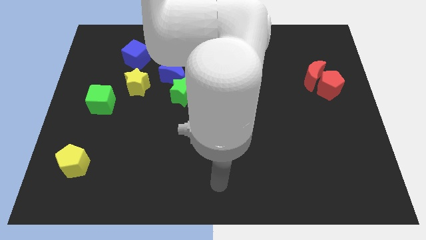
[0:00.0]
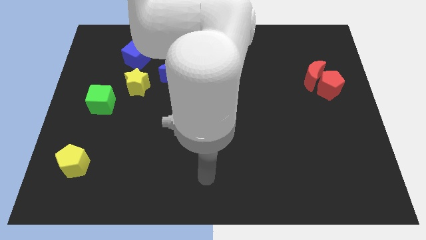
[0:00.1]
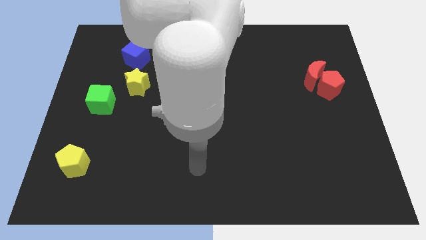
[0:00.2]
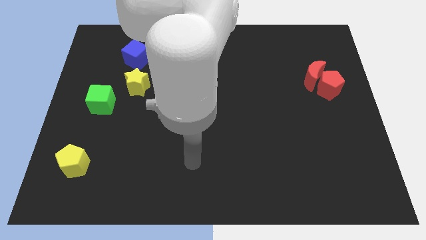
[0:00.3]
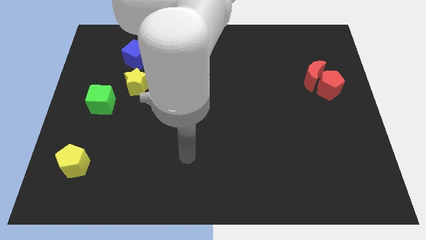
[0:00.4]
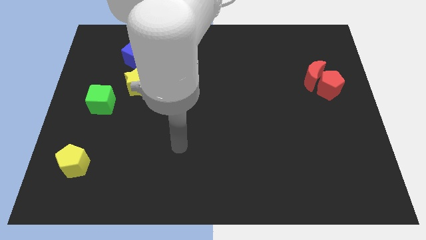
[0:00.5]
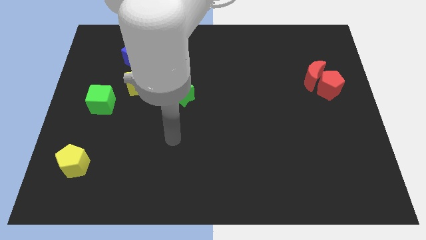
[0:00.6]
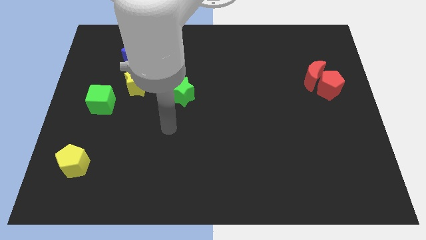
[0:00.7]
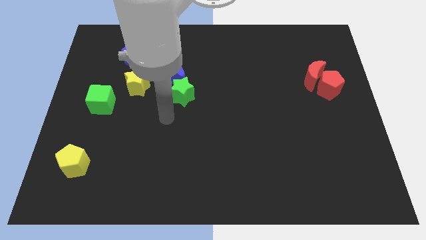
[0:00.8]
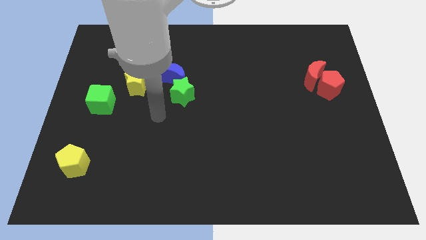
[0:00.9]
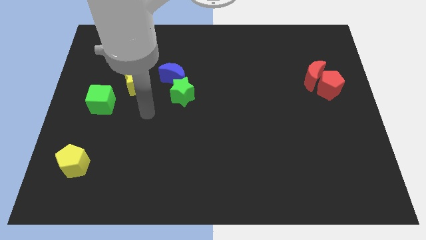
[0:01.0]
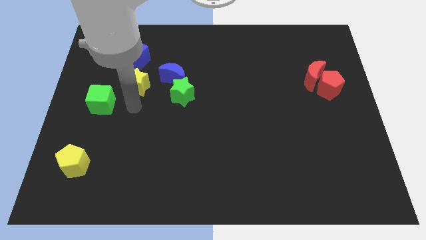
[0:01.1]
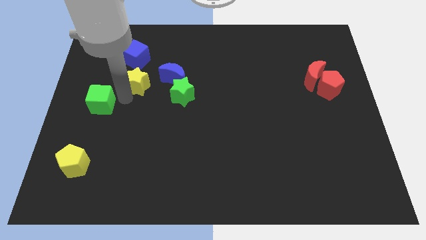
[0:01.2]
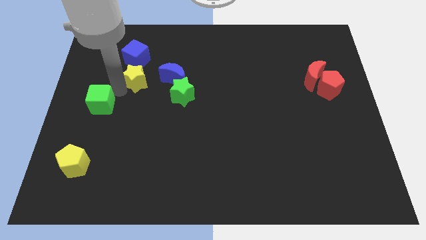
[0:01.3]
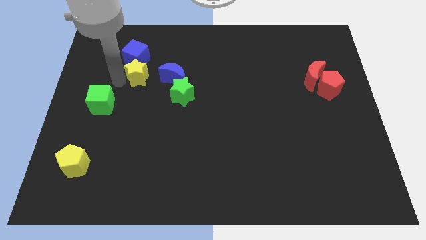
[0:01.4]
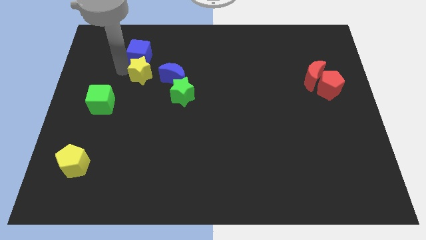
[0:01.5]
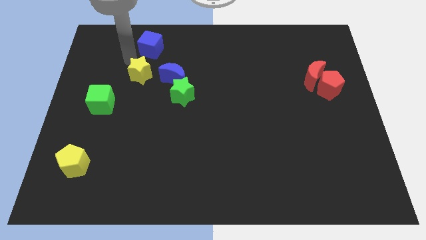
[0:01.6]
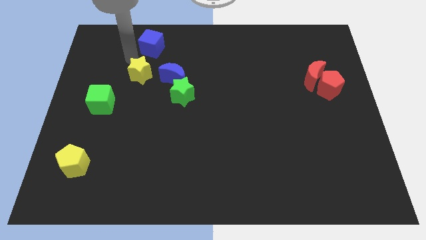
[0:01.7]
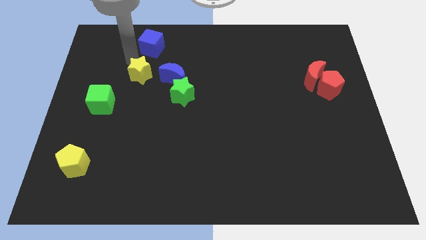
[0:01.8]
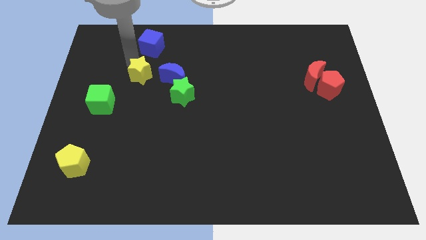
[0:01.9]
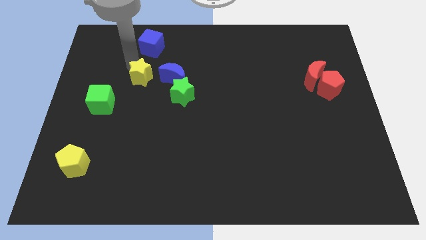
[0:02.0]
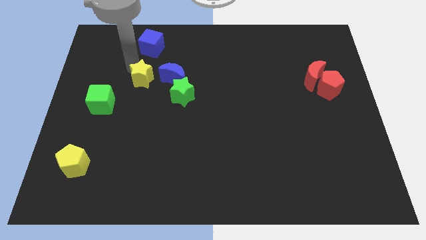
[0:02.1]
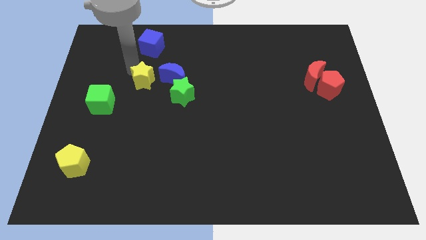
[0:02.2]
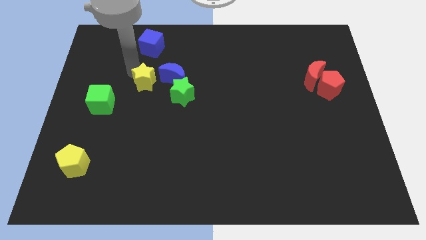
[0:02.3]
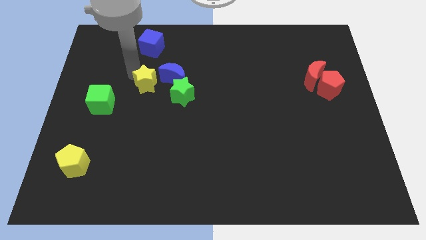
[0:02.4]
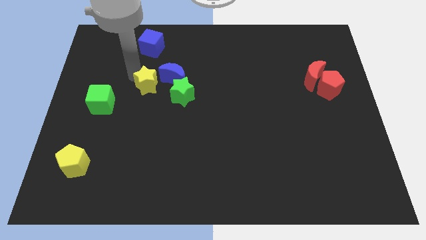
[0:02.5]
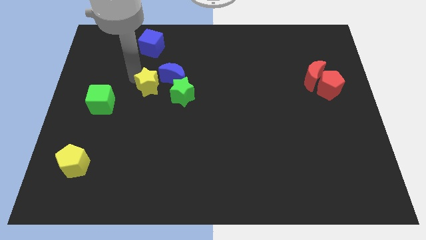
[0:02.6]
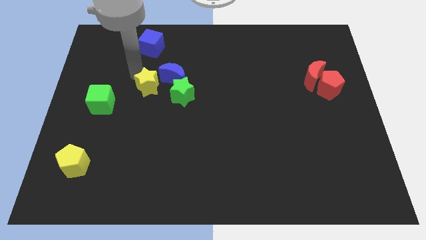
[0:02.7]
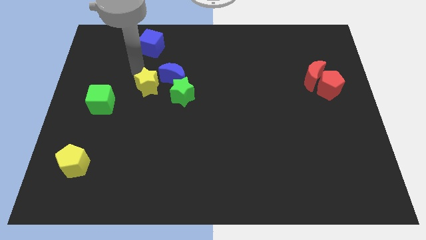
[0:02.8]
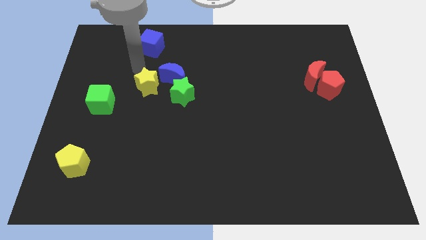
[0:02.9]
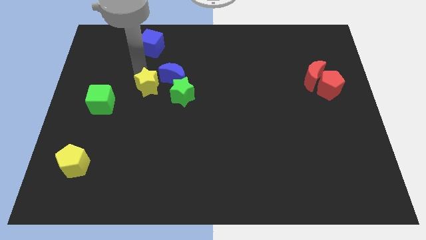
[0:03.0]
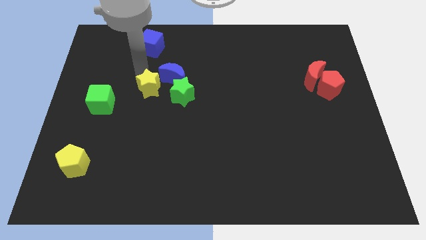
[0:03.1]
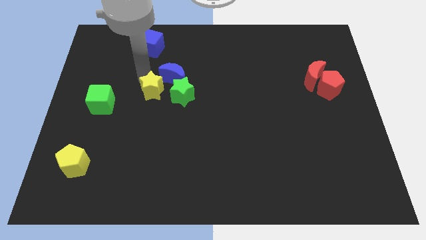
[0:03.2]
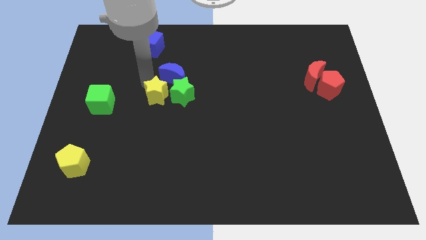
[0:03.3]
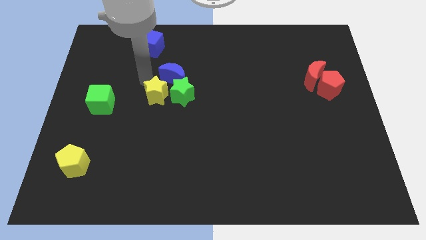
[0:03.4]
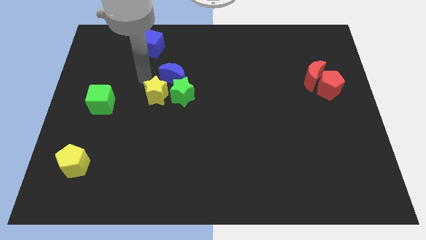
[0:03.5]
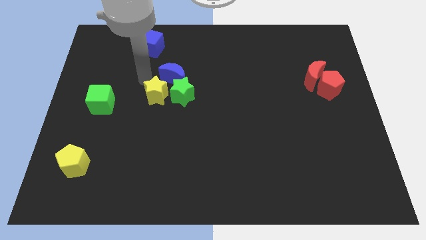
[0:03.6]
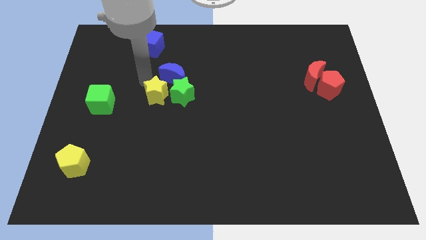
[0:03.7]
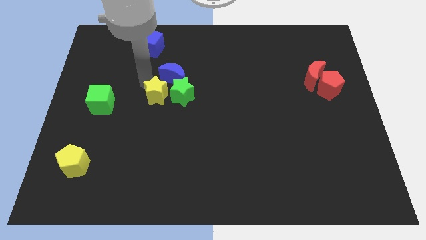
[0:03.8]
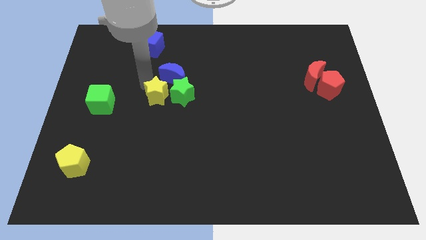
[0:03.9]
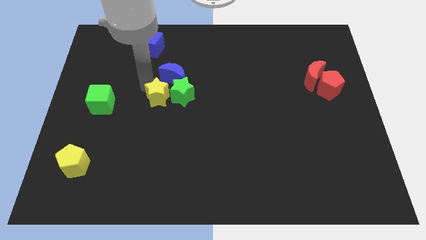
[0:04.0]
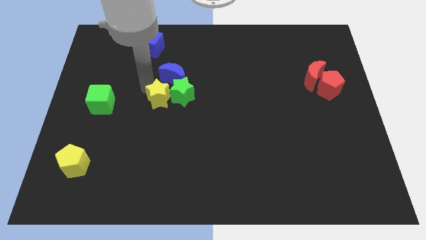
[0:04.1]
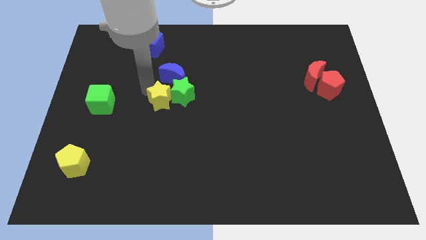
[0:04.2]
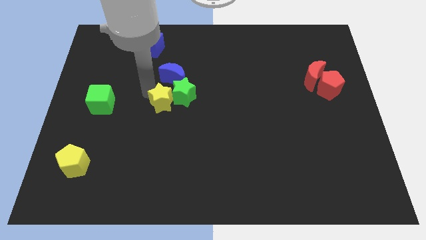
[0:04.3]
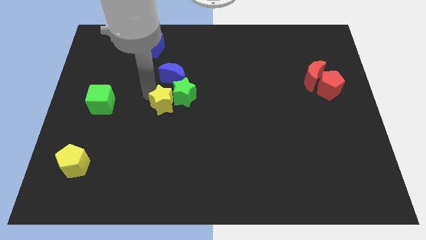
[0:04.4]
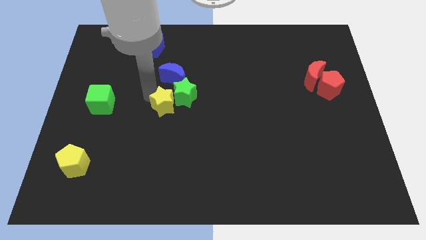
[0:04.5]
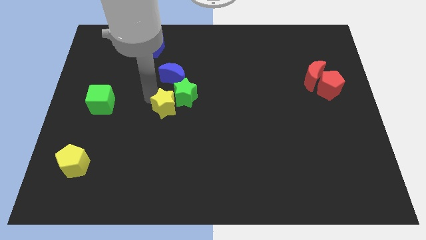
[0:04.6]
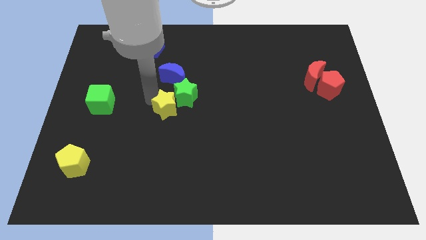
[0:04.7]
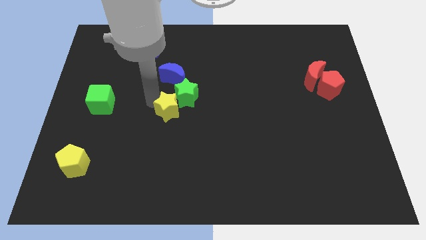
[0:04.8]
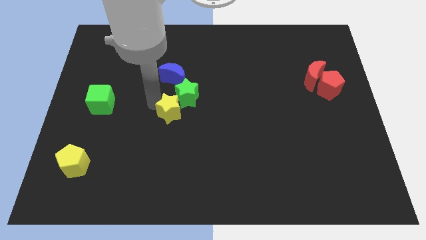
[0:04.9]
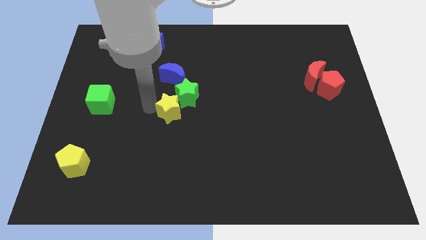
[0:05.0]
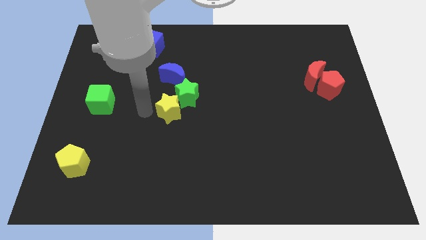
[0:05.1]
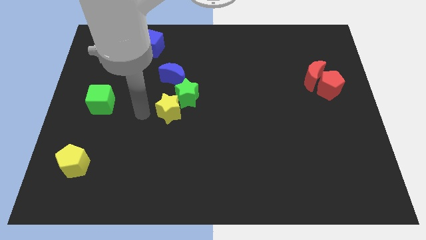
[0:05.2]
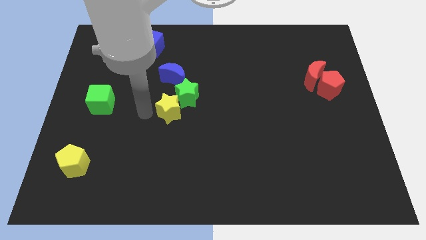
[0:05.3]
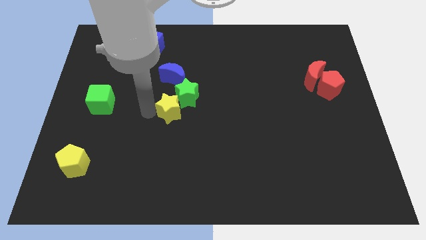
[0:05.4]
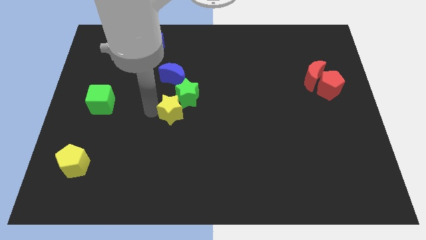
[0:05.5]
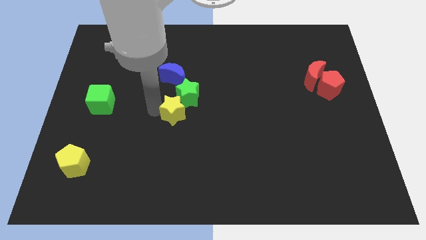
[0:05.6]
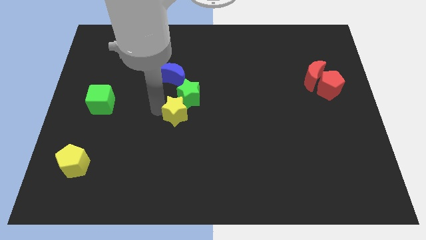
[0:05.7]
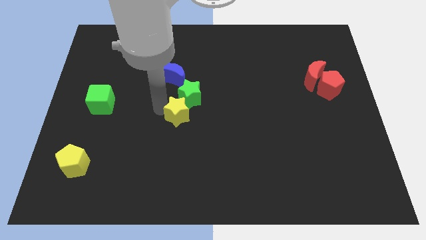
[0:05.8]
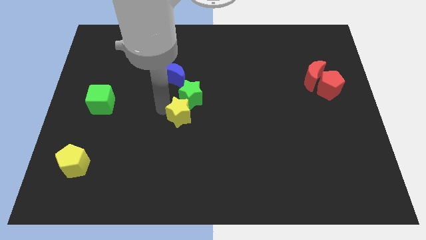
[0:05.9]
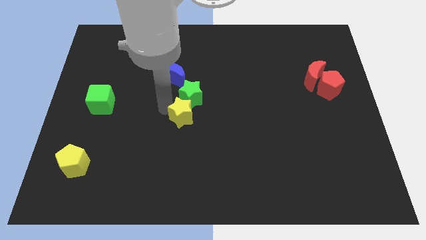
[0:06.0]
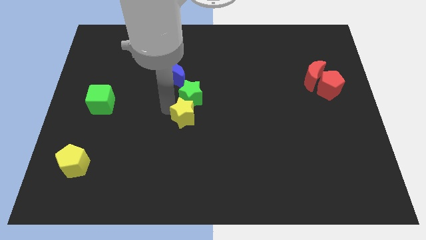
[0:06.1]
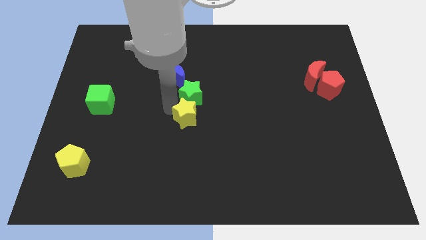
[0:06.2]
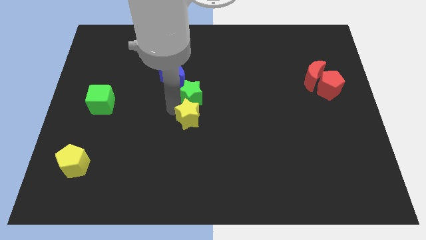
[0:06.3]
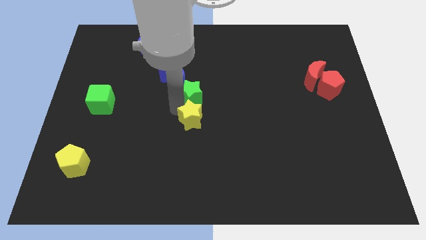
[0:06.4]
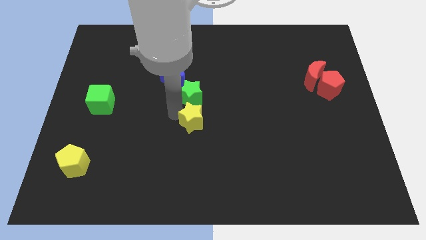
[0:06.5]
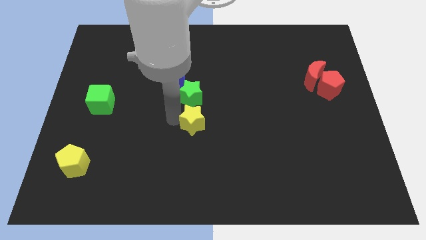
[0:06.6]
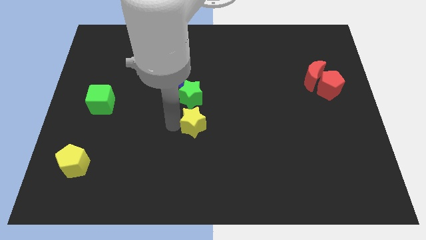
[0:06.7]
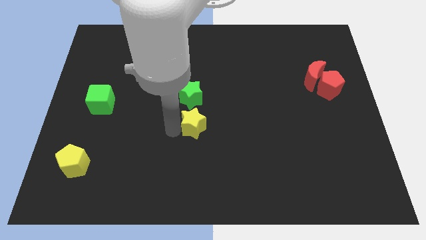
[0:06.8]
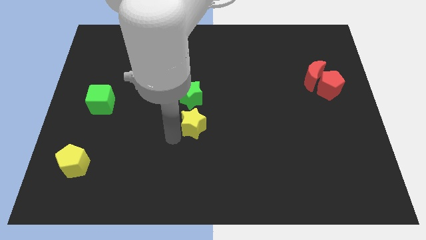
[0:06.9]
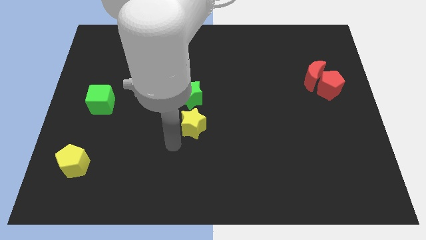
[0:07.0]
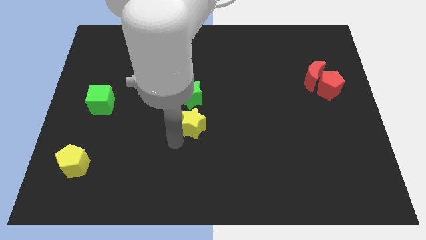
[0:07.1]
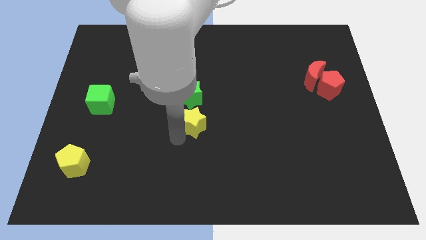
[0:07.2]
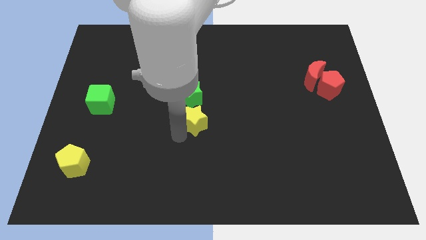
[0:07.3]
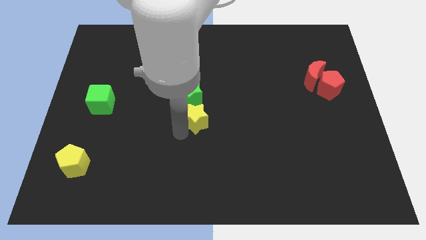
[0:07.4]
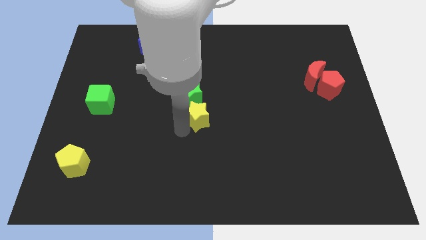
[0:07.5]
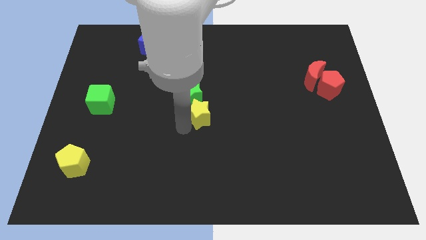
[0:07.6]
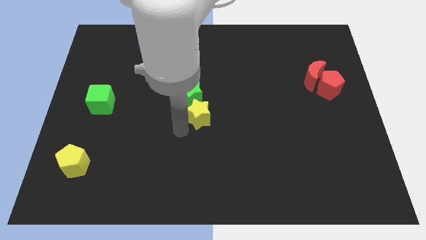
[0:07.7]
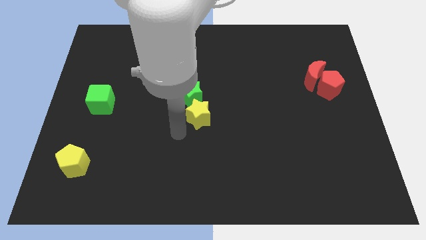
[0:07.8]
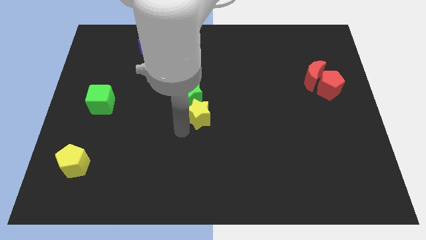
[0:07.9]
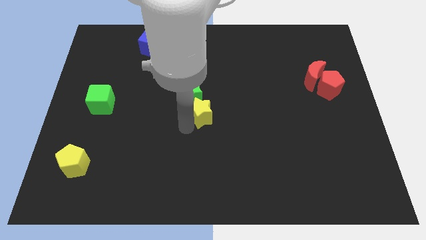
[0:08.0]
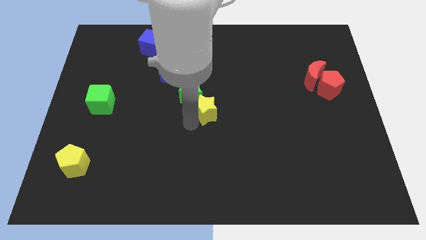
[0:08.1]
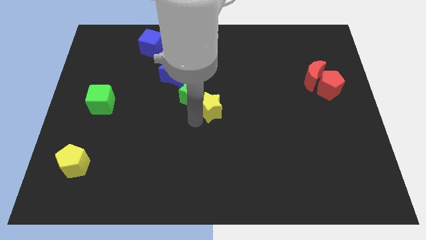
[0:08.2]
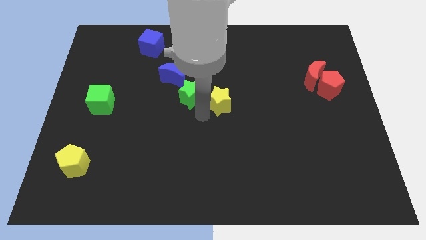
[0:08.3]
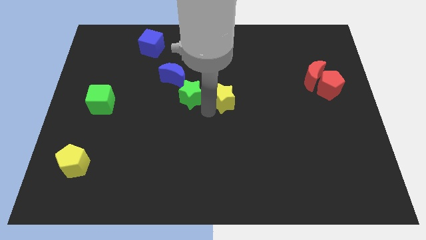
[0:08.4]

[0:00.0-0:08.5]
push the yellow star to the right
